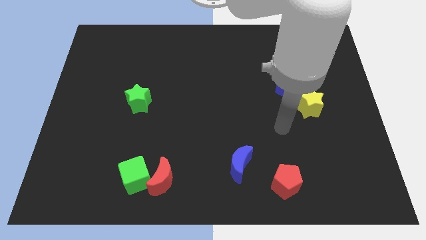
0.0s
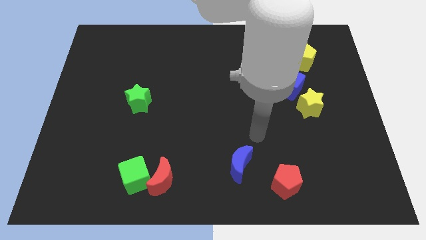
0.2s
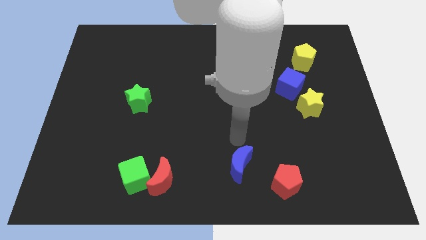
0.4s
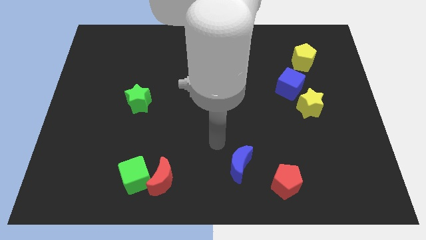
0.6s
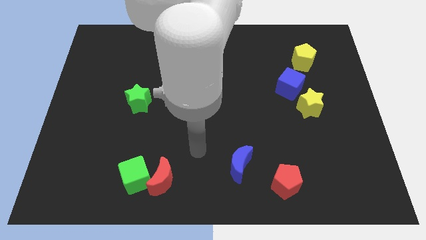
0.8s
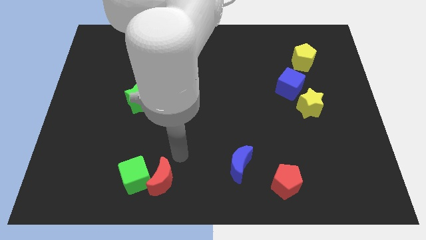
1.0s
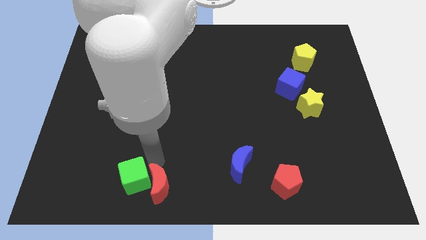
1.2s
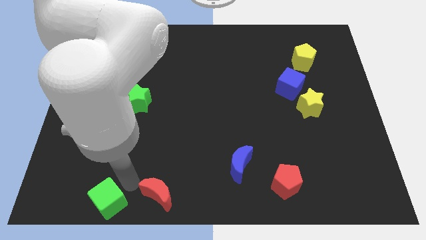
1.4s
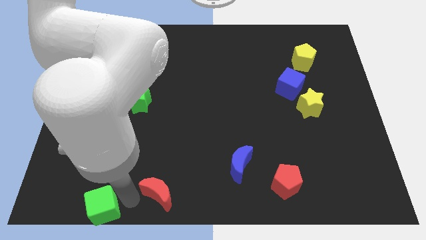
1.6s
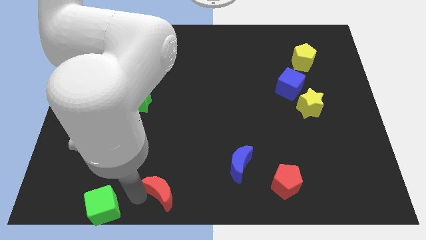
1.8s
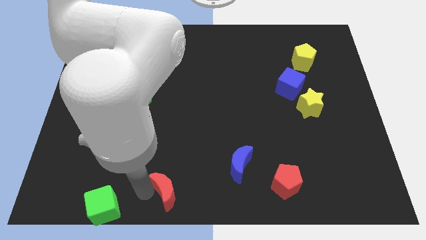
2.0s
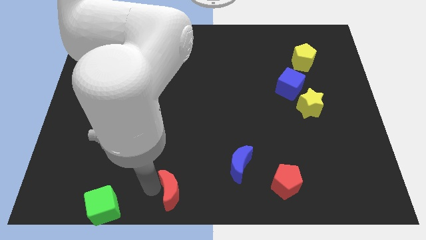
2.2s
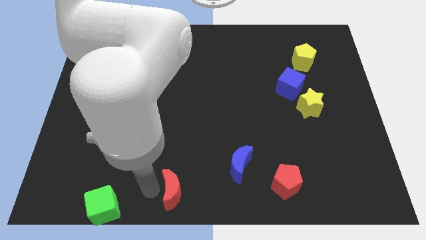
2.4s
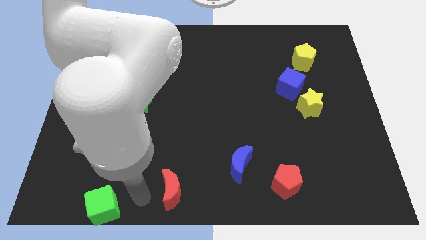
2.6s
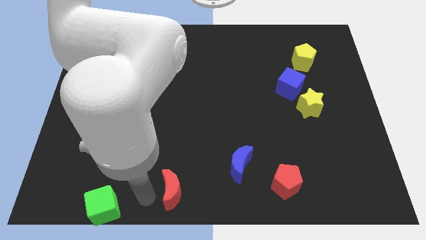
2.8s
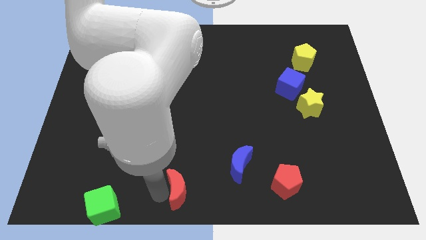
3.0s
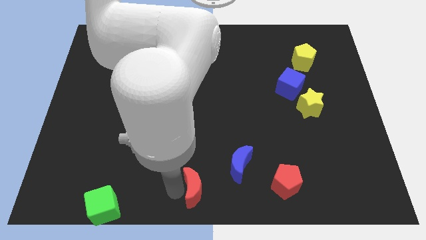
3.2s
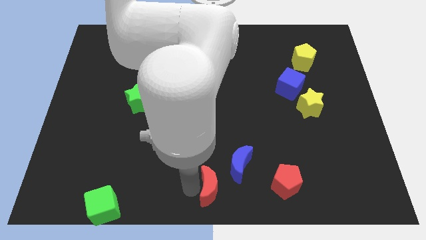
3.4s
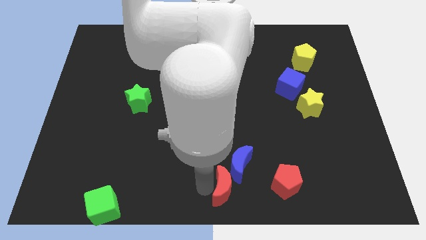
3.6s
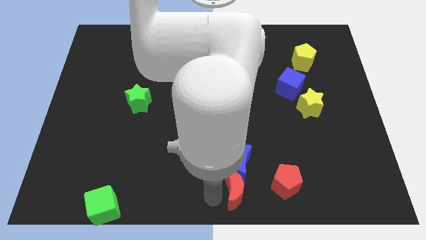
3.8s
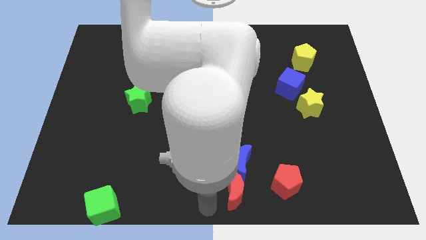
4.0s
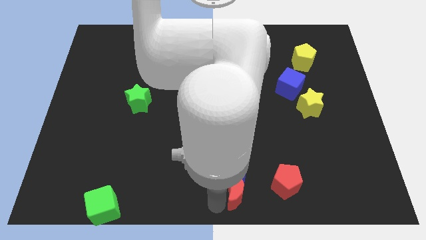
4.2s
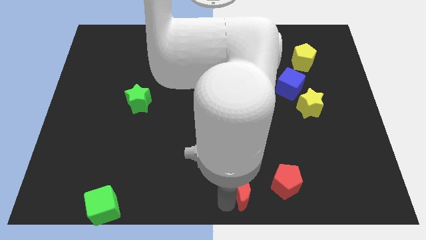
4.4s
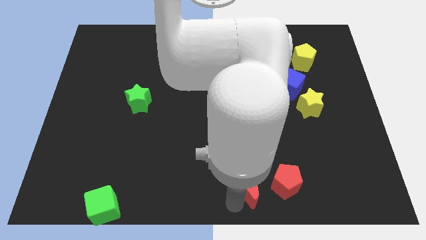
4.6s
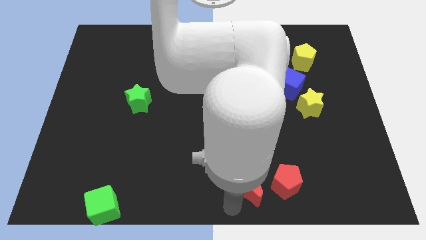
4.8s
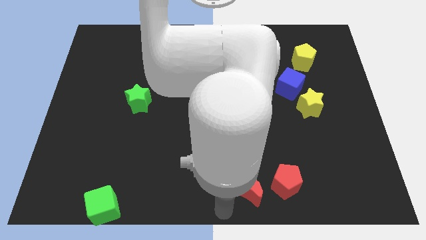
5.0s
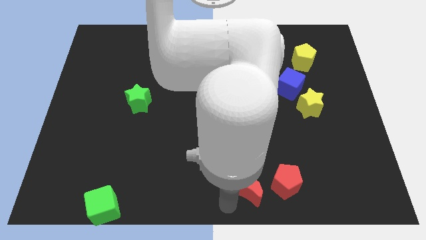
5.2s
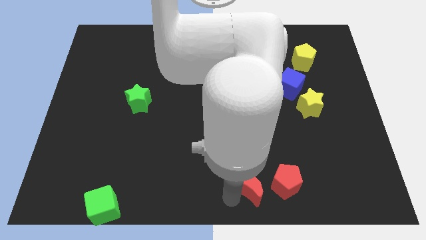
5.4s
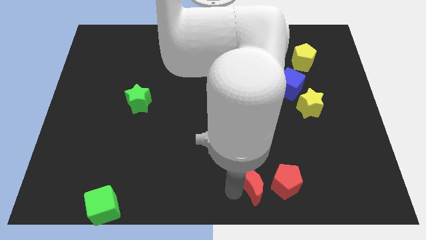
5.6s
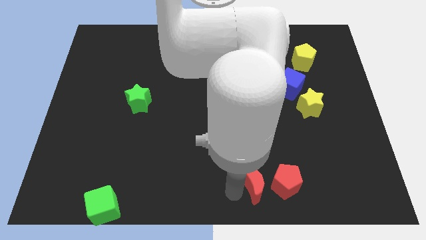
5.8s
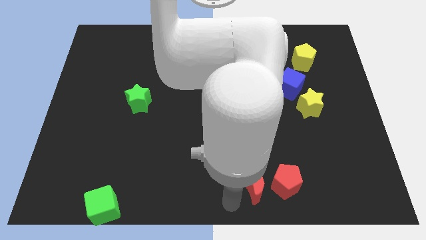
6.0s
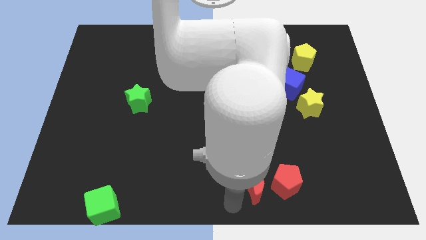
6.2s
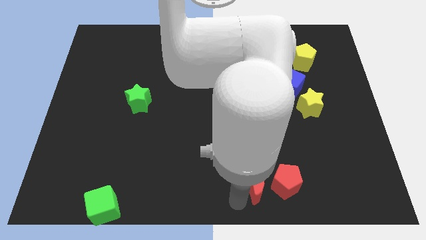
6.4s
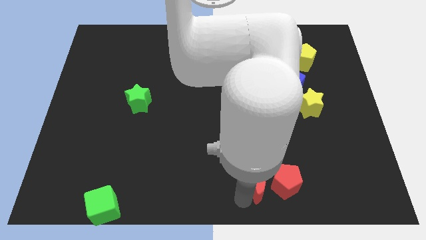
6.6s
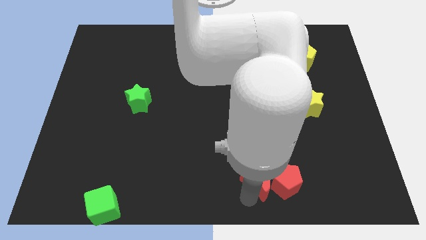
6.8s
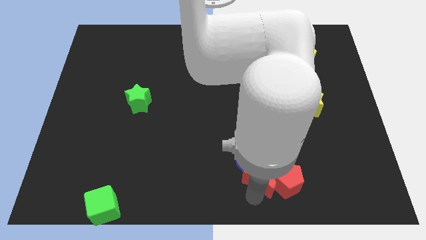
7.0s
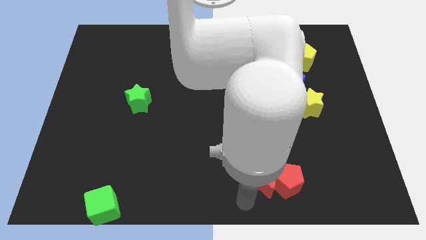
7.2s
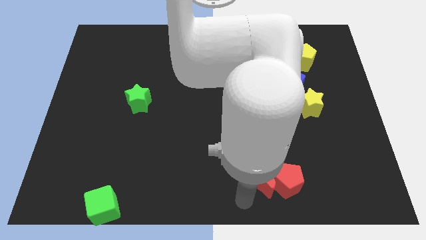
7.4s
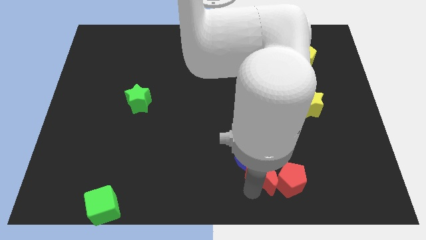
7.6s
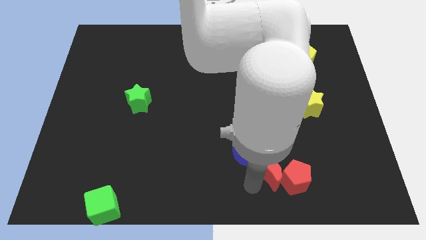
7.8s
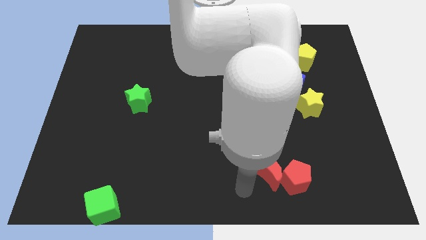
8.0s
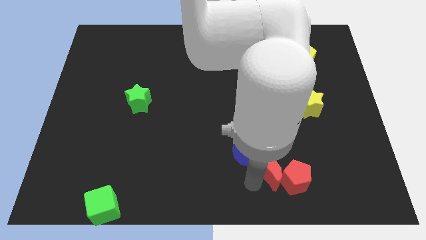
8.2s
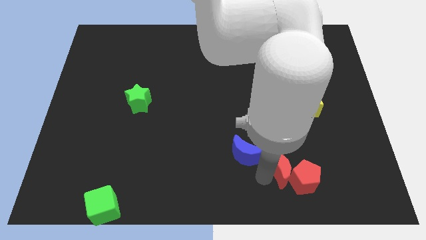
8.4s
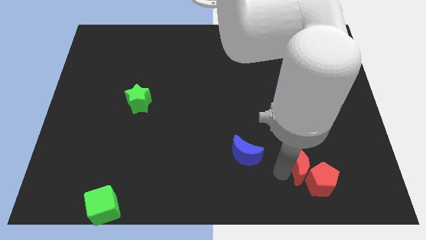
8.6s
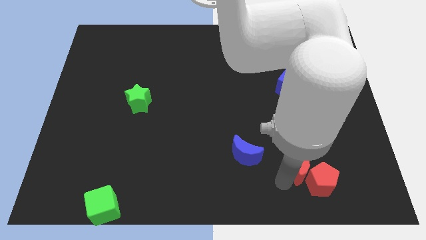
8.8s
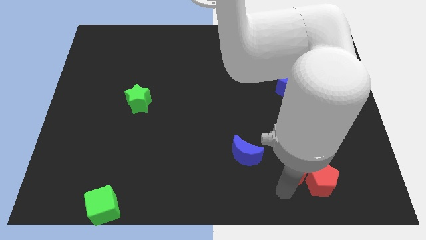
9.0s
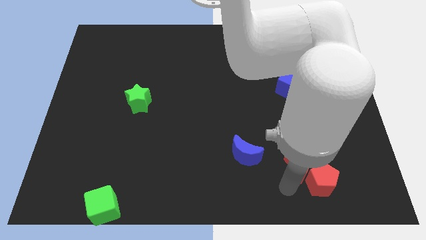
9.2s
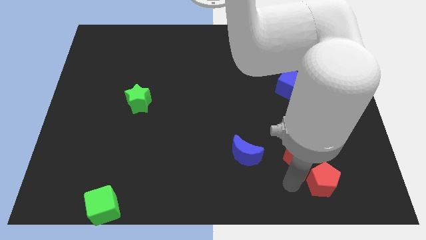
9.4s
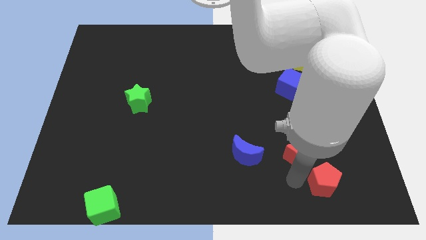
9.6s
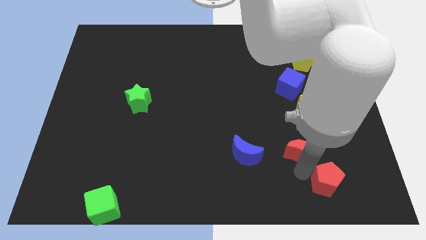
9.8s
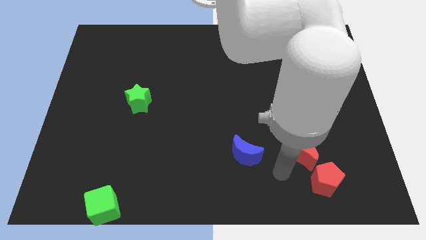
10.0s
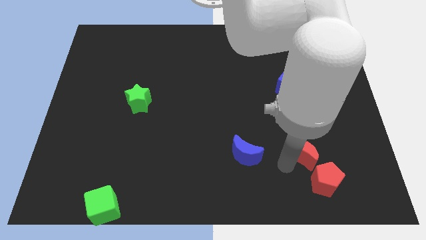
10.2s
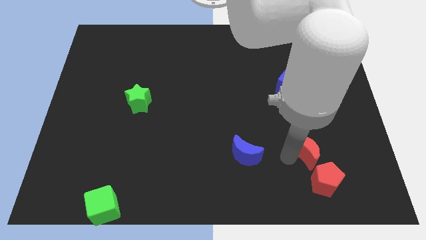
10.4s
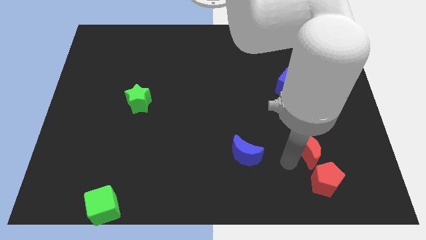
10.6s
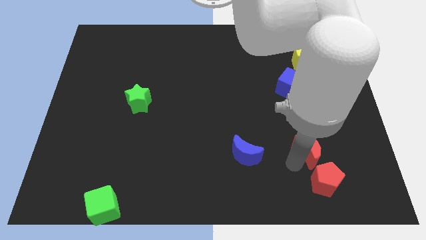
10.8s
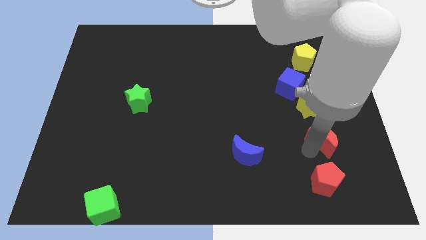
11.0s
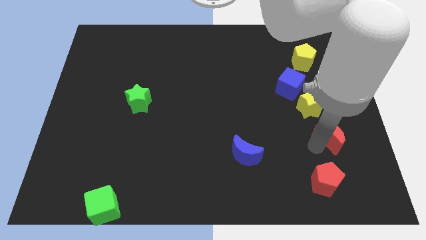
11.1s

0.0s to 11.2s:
put the red moon diagonally down and to the right of the yellow star

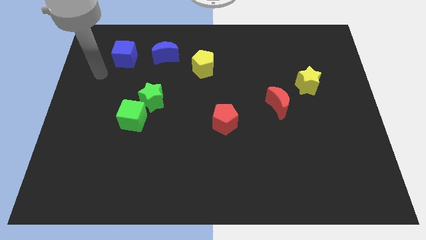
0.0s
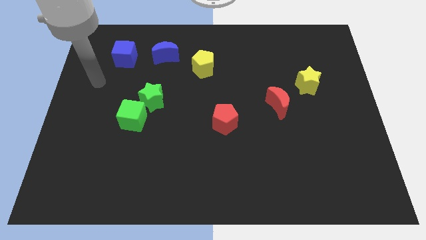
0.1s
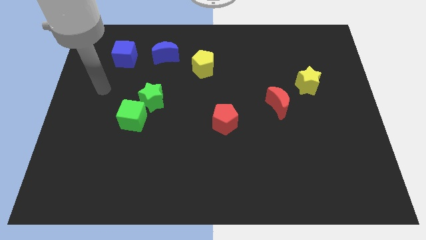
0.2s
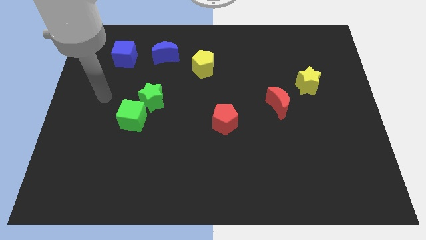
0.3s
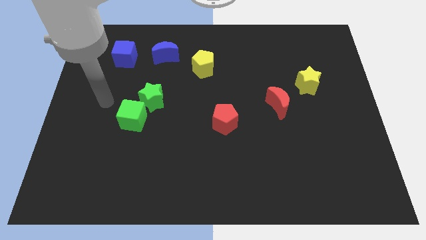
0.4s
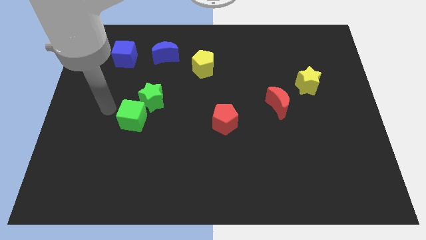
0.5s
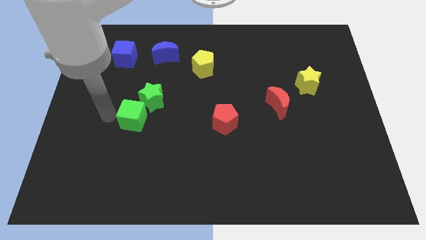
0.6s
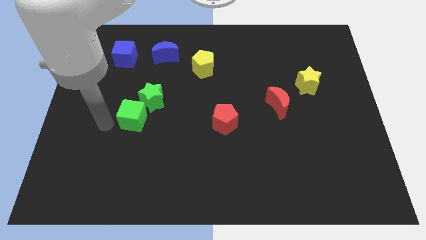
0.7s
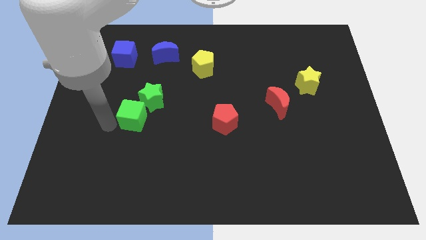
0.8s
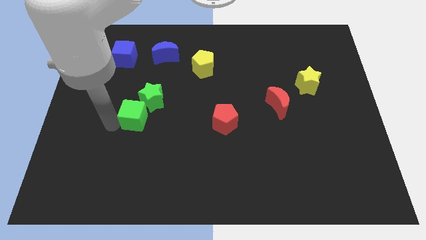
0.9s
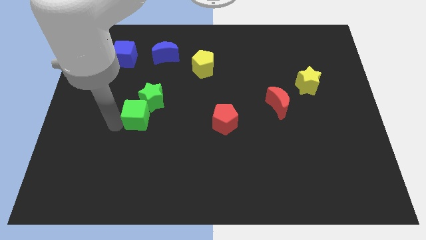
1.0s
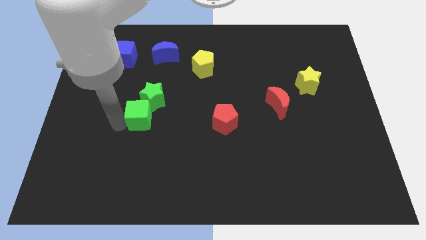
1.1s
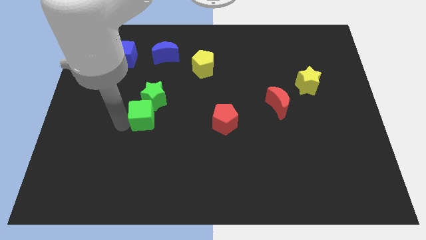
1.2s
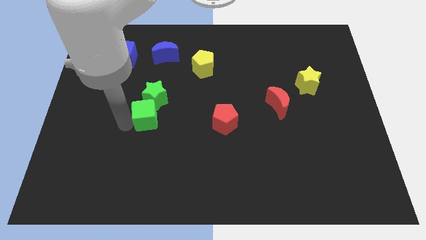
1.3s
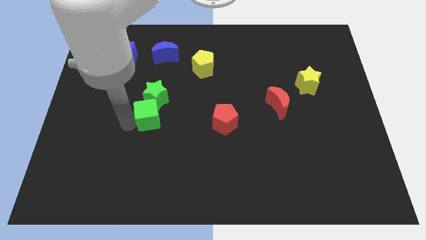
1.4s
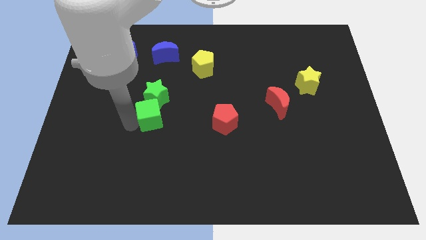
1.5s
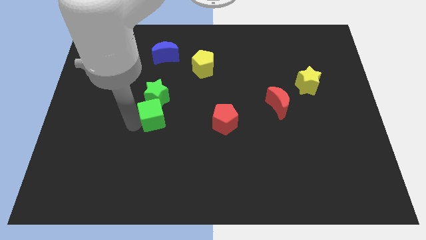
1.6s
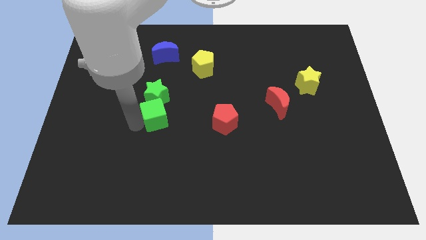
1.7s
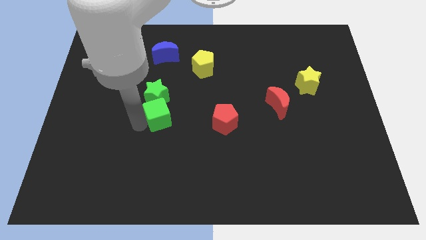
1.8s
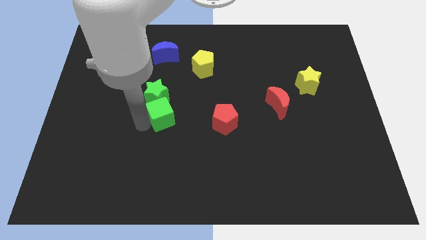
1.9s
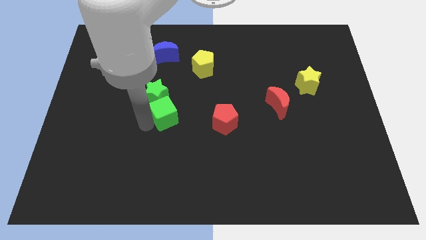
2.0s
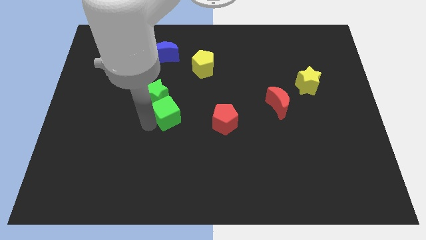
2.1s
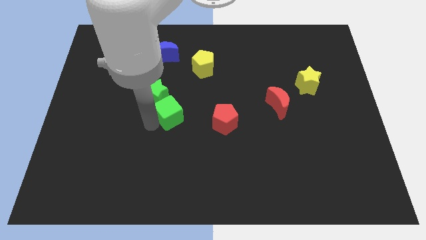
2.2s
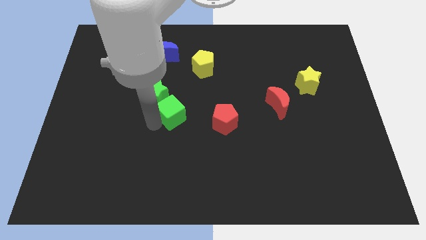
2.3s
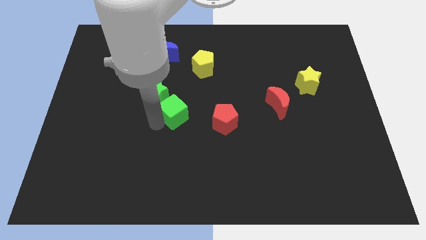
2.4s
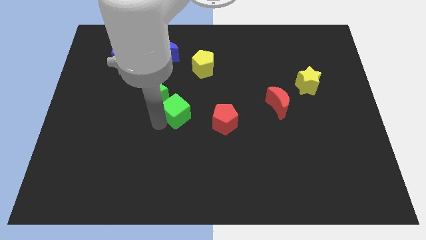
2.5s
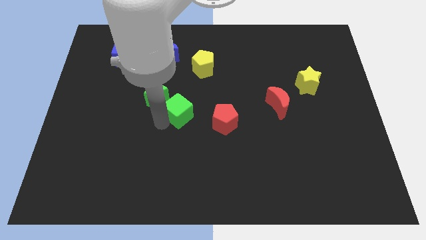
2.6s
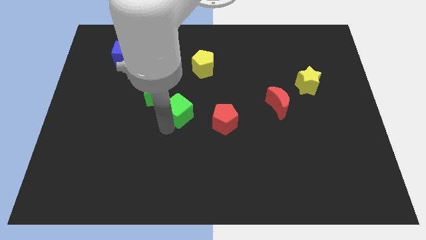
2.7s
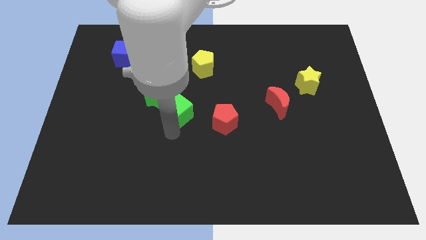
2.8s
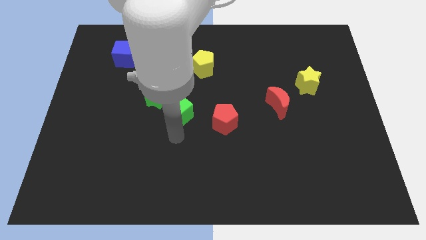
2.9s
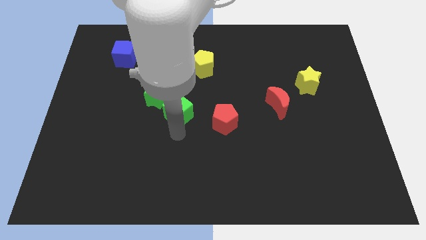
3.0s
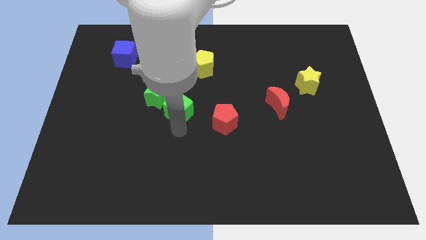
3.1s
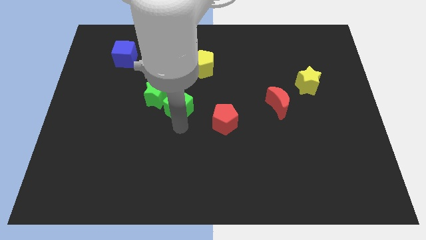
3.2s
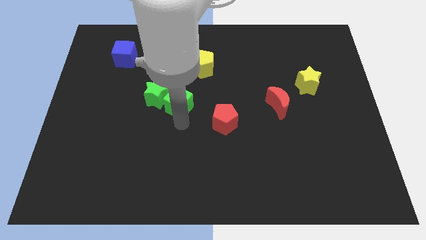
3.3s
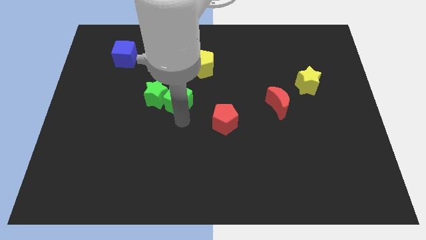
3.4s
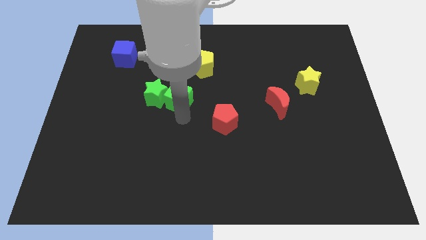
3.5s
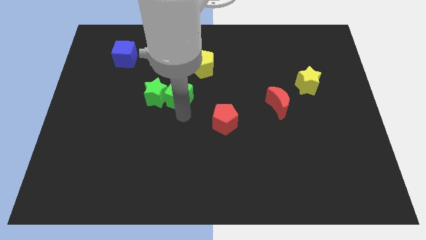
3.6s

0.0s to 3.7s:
move the green cube to the bottom left side of the yellow pentagon
